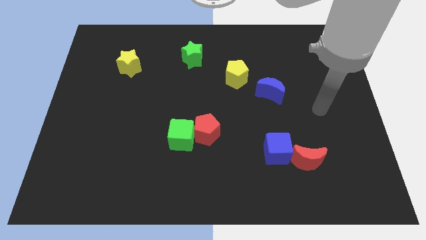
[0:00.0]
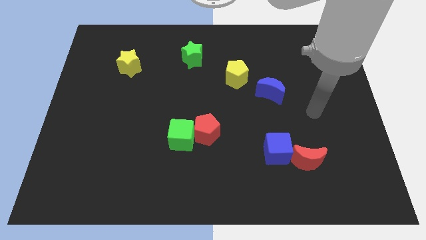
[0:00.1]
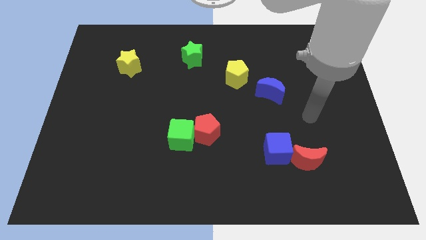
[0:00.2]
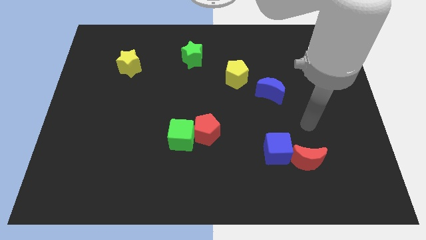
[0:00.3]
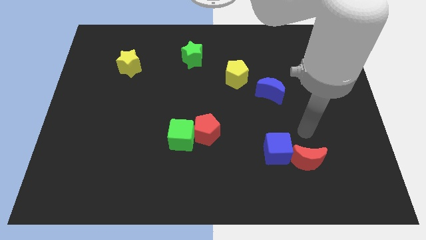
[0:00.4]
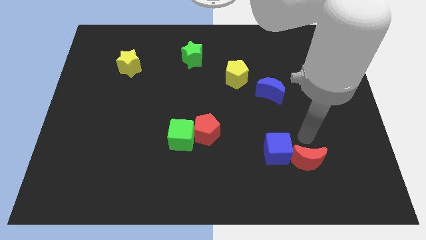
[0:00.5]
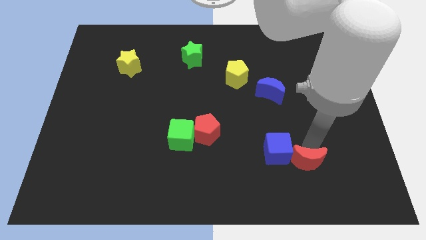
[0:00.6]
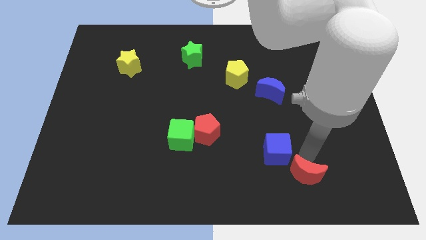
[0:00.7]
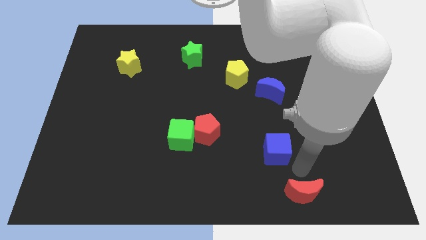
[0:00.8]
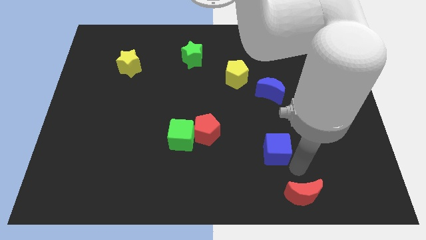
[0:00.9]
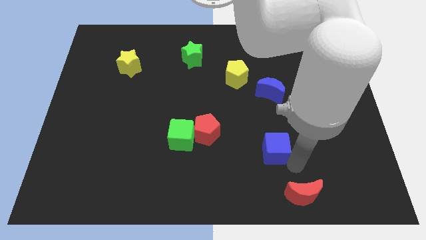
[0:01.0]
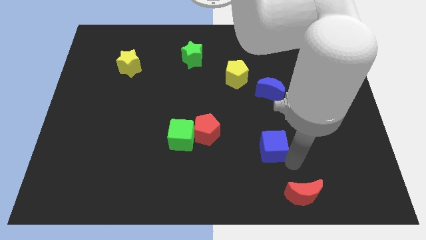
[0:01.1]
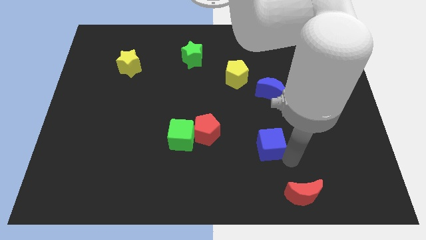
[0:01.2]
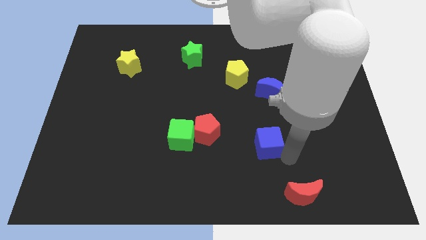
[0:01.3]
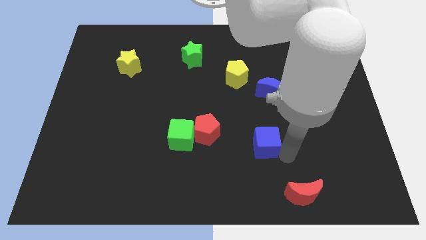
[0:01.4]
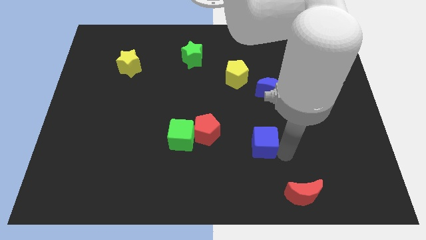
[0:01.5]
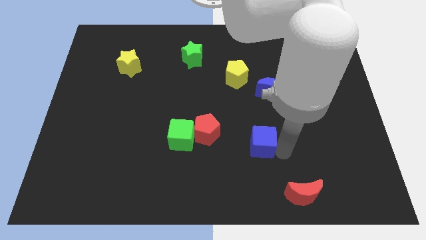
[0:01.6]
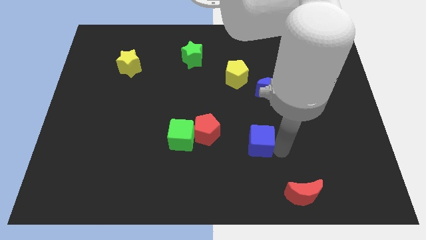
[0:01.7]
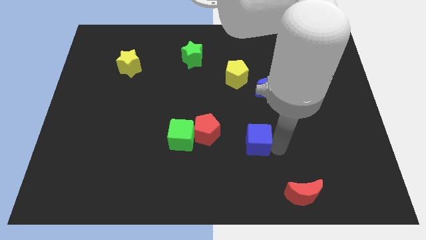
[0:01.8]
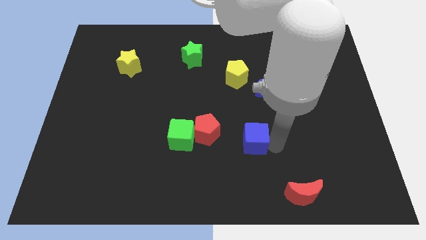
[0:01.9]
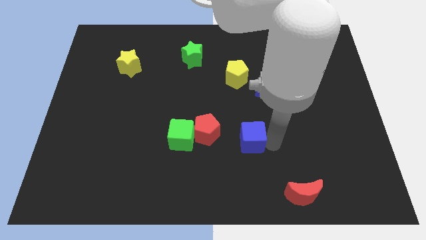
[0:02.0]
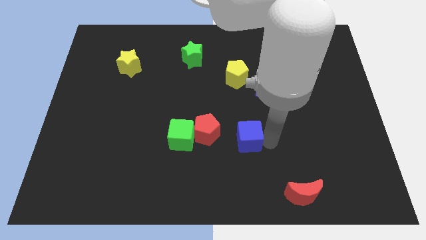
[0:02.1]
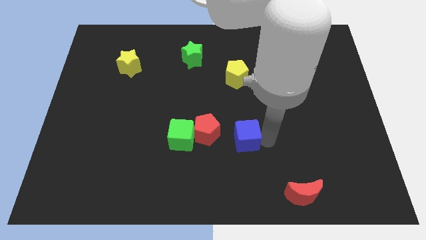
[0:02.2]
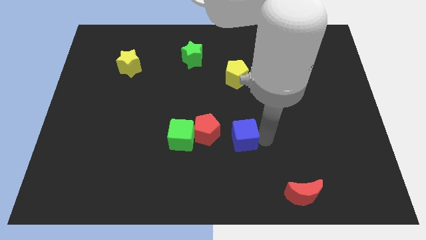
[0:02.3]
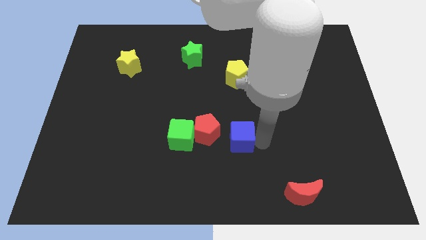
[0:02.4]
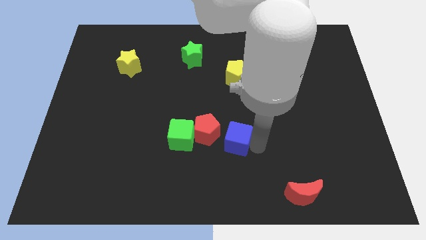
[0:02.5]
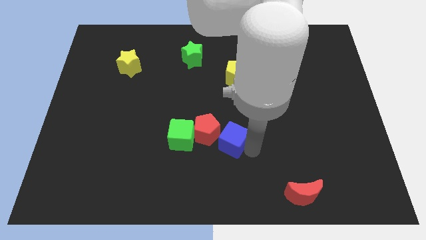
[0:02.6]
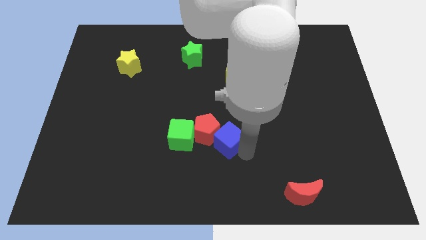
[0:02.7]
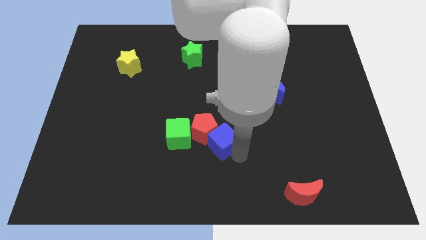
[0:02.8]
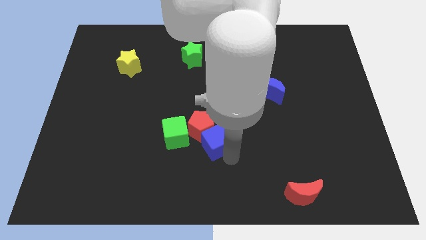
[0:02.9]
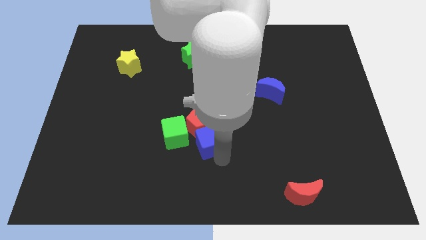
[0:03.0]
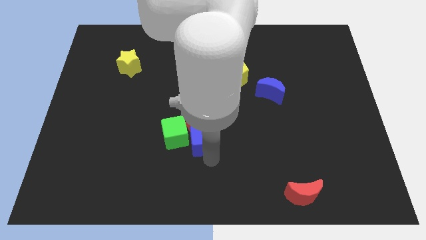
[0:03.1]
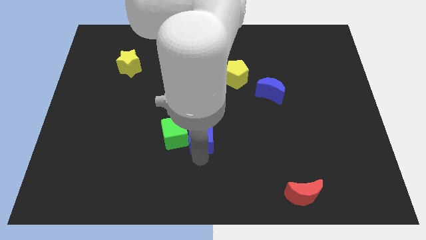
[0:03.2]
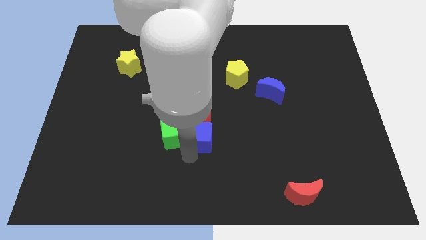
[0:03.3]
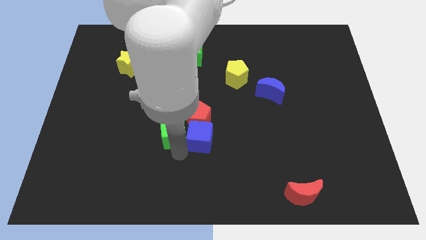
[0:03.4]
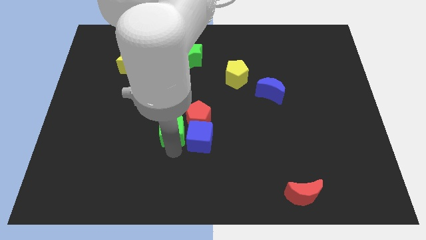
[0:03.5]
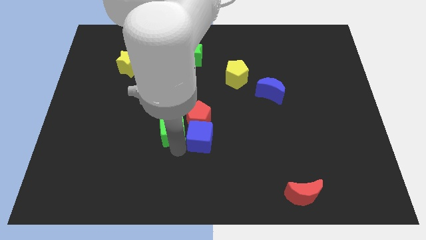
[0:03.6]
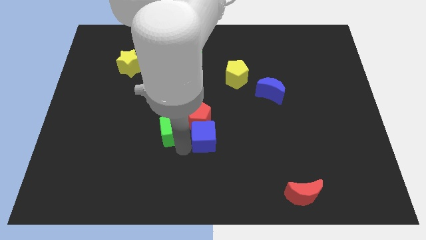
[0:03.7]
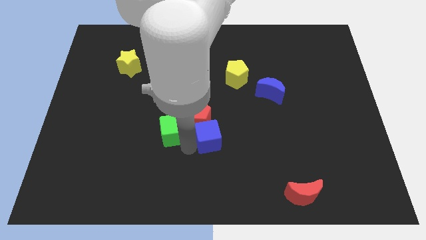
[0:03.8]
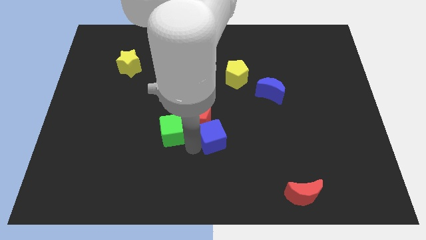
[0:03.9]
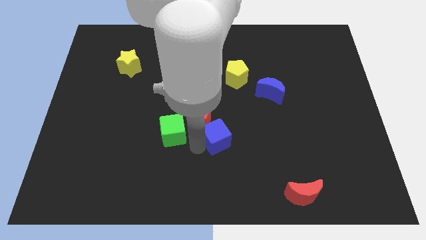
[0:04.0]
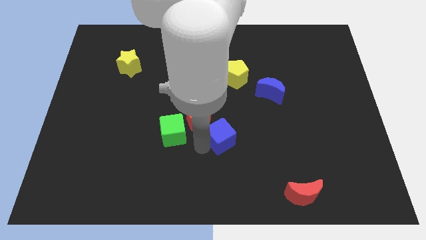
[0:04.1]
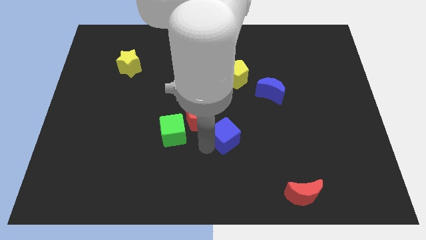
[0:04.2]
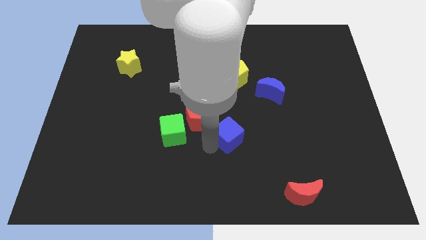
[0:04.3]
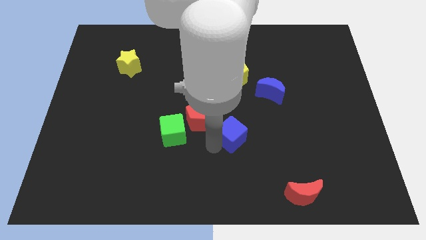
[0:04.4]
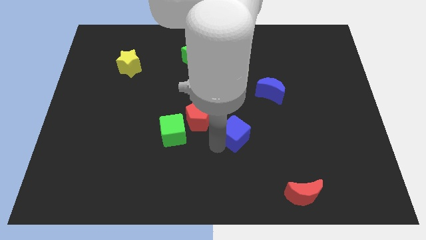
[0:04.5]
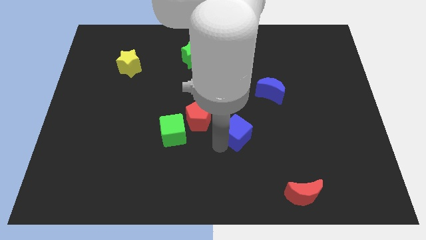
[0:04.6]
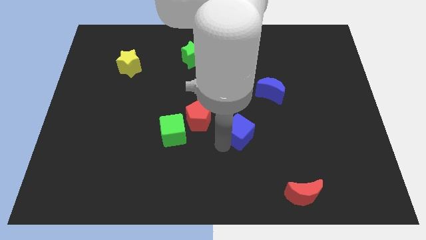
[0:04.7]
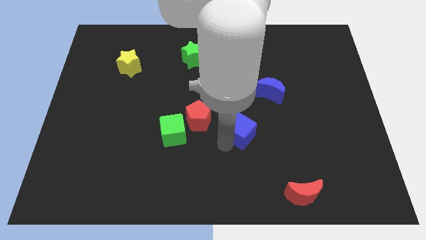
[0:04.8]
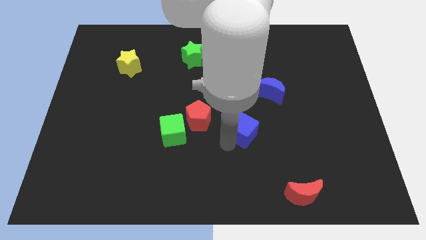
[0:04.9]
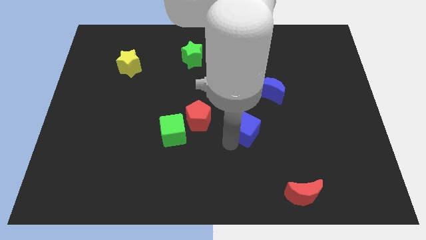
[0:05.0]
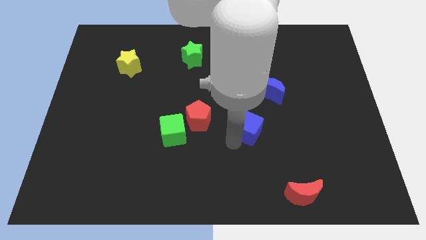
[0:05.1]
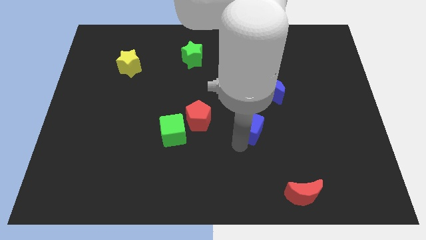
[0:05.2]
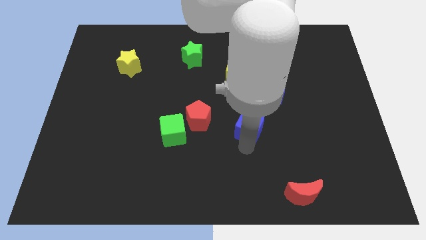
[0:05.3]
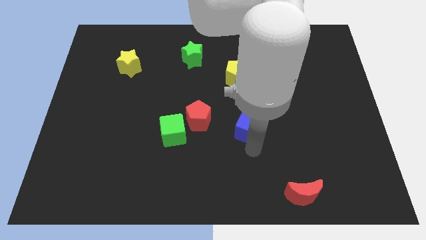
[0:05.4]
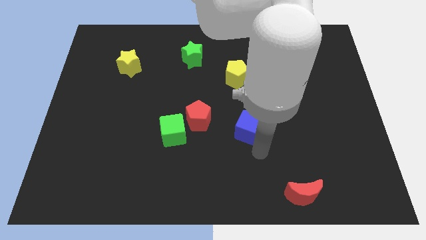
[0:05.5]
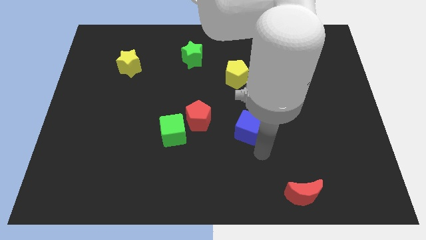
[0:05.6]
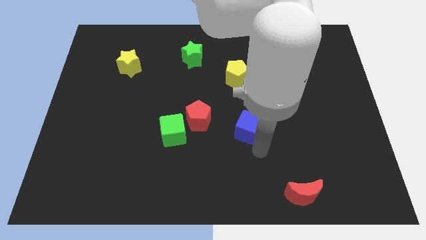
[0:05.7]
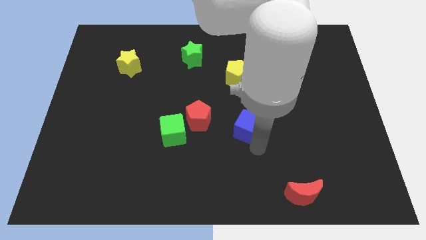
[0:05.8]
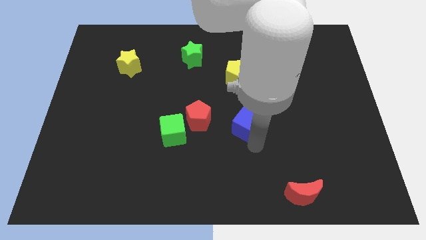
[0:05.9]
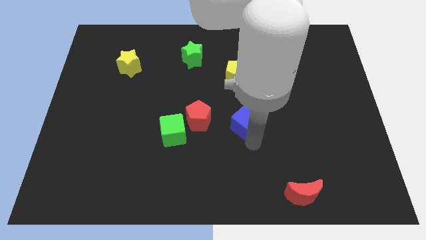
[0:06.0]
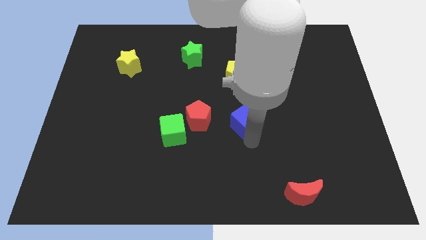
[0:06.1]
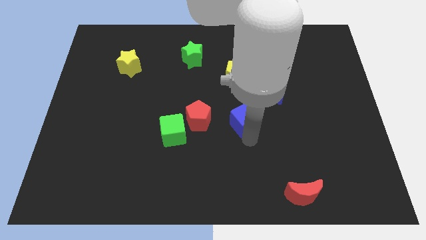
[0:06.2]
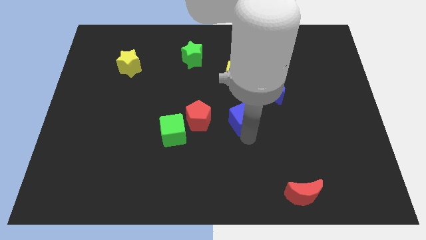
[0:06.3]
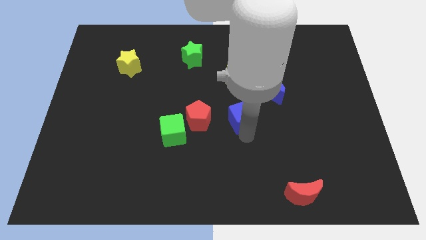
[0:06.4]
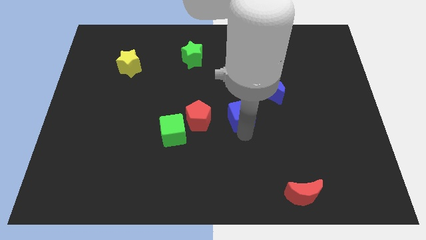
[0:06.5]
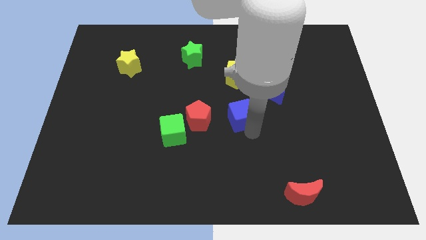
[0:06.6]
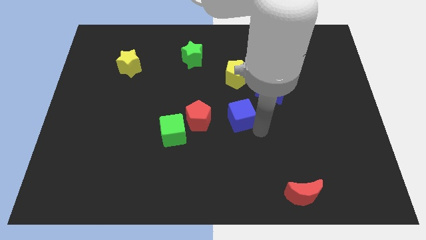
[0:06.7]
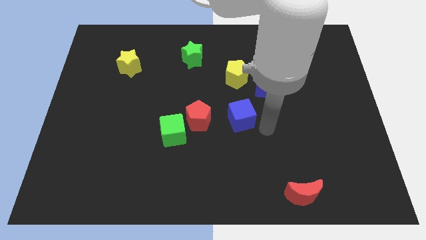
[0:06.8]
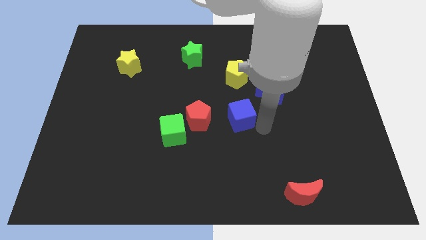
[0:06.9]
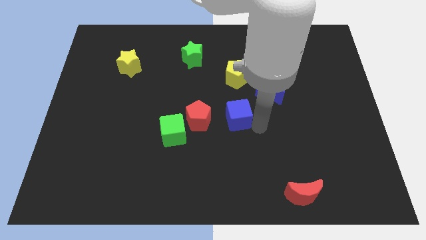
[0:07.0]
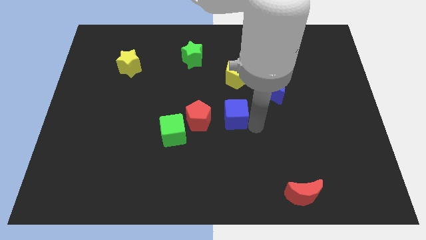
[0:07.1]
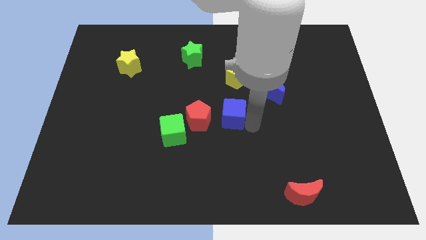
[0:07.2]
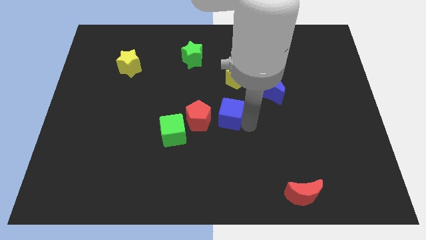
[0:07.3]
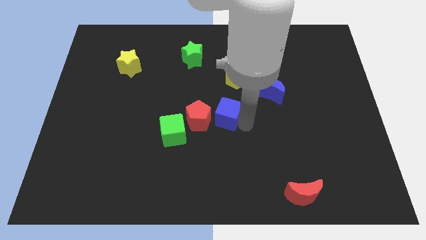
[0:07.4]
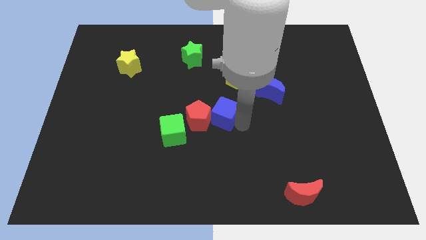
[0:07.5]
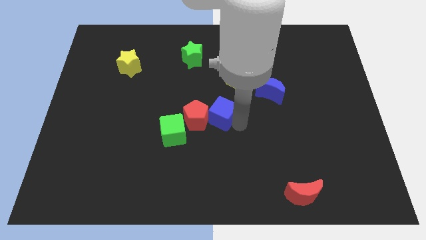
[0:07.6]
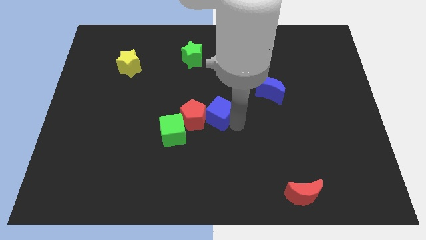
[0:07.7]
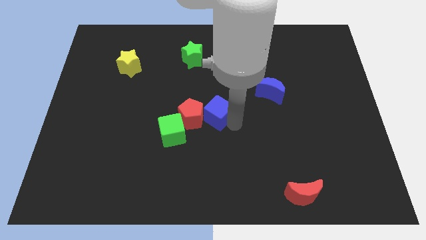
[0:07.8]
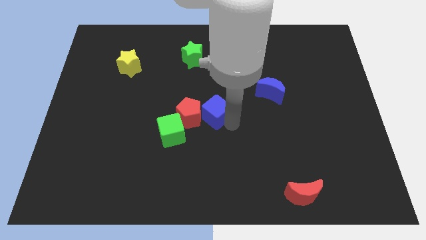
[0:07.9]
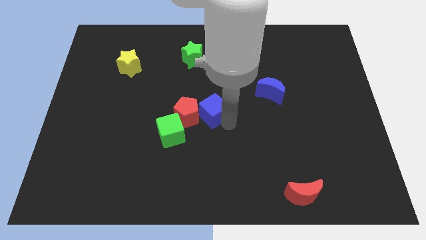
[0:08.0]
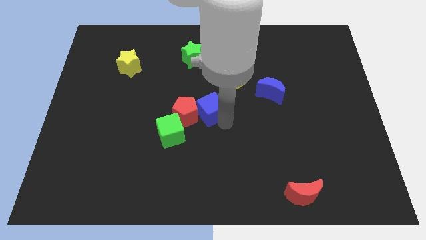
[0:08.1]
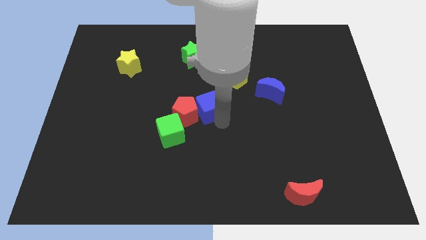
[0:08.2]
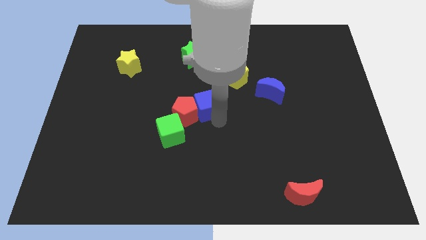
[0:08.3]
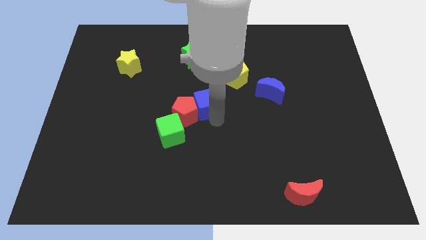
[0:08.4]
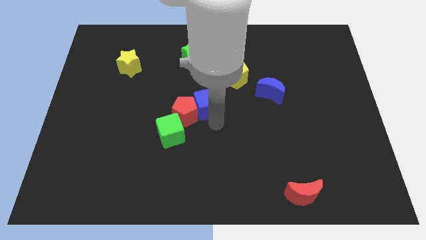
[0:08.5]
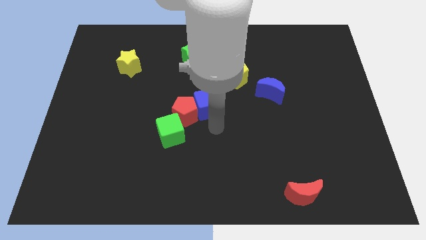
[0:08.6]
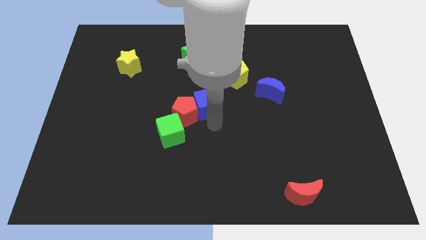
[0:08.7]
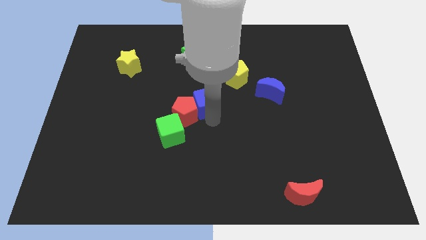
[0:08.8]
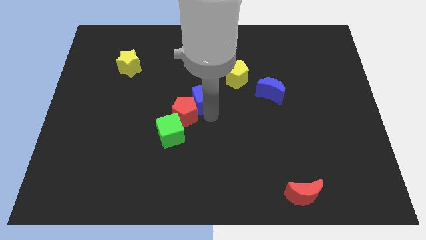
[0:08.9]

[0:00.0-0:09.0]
slide the blue cube up and left diagonally
